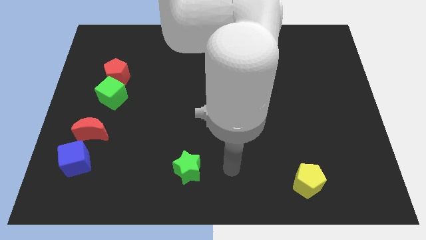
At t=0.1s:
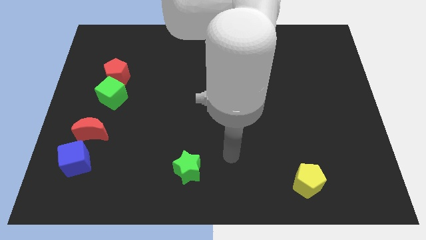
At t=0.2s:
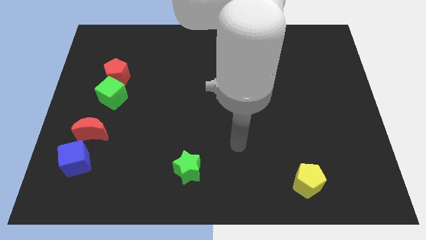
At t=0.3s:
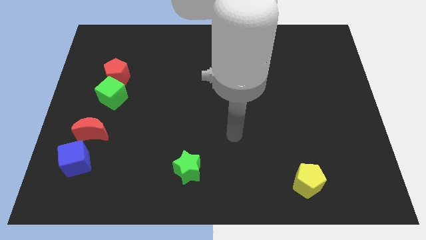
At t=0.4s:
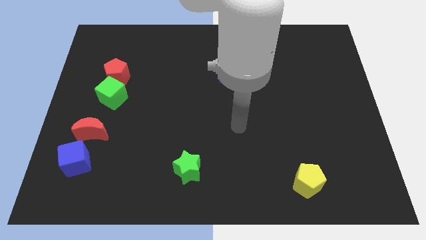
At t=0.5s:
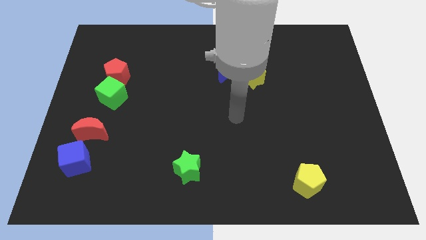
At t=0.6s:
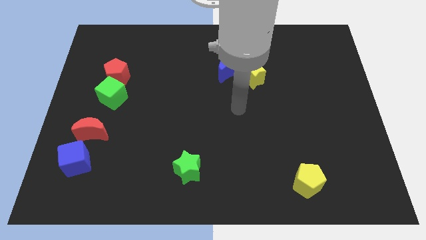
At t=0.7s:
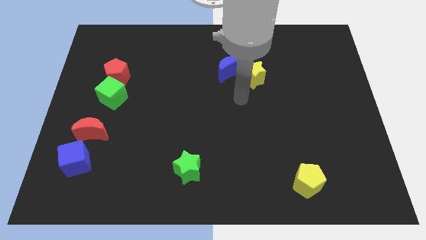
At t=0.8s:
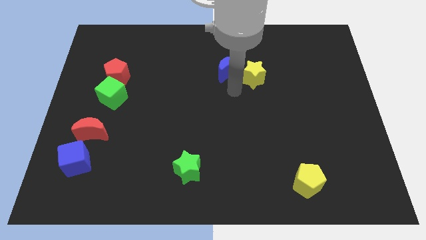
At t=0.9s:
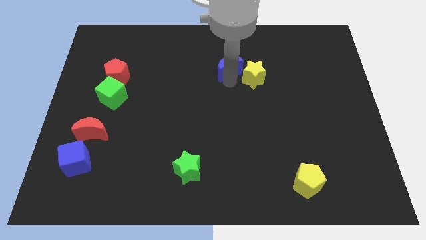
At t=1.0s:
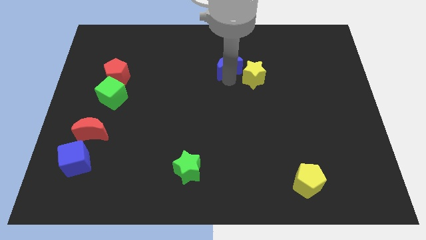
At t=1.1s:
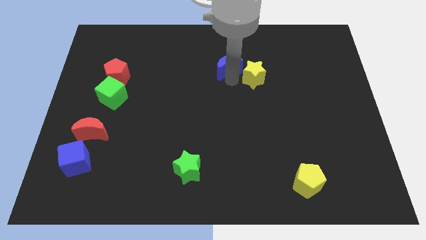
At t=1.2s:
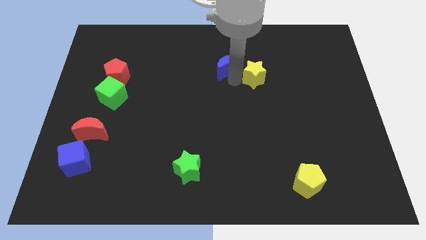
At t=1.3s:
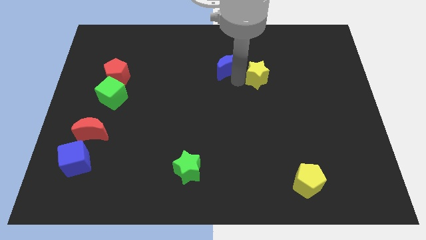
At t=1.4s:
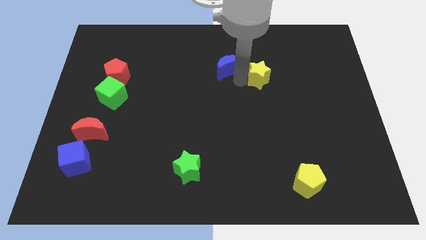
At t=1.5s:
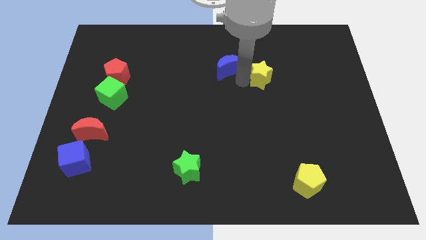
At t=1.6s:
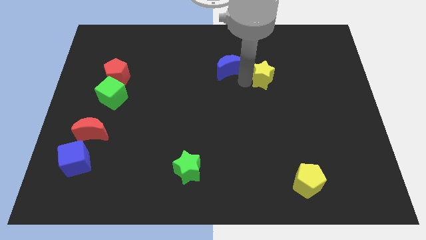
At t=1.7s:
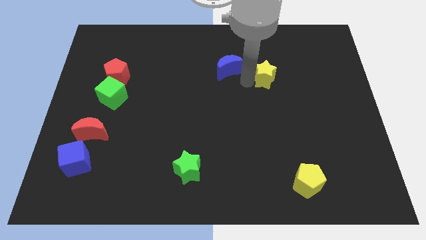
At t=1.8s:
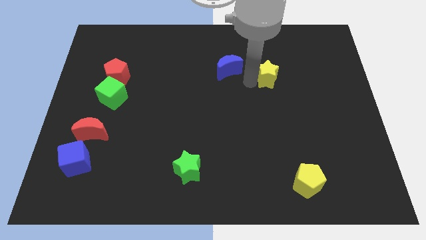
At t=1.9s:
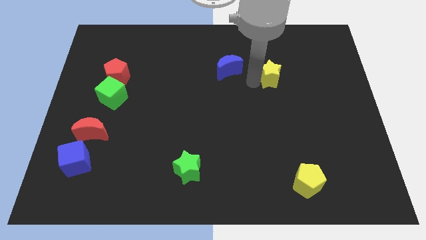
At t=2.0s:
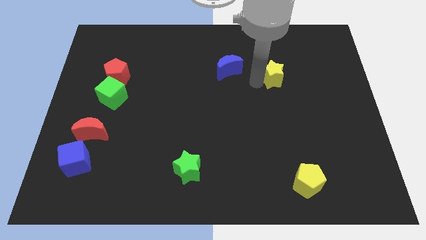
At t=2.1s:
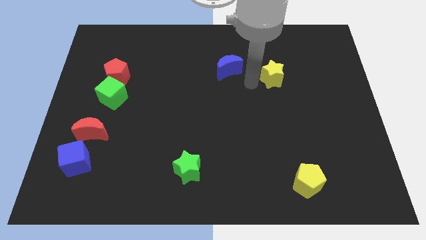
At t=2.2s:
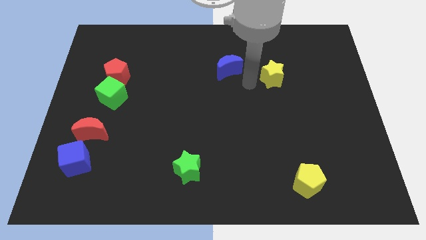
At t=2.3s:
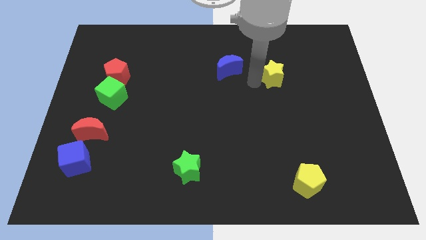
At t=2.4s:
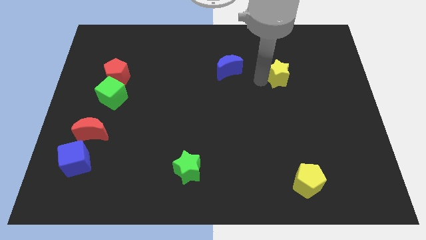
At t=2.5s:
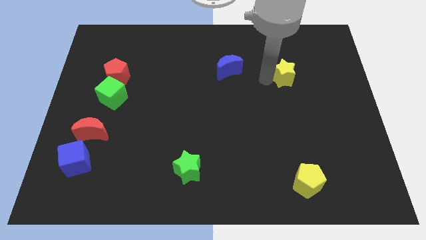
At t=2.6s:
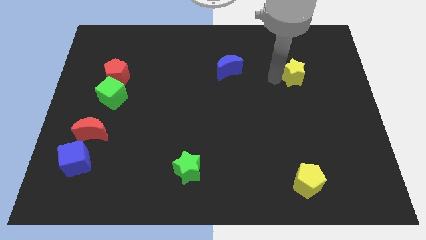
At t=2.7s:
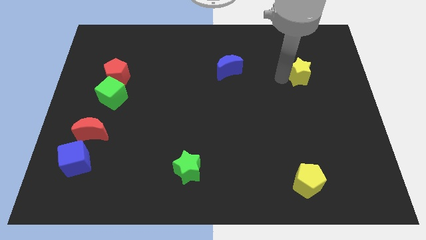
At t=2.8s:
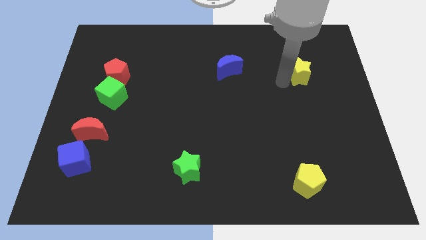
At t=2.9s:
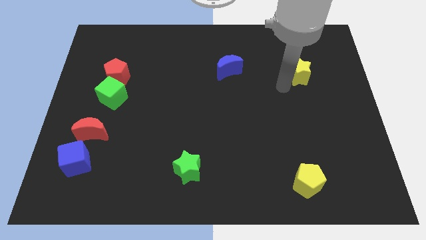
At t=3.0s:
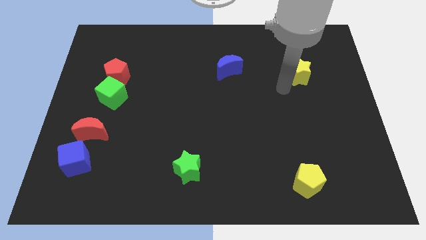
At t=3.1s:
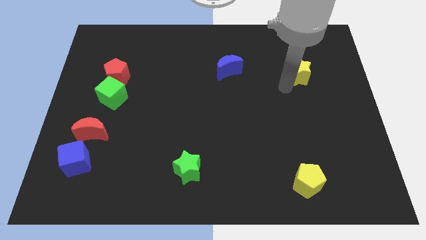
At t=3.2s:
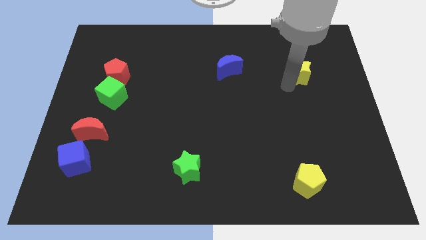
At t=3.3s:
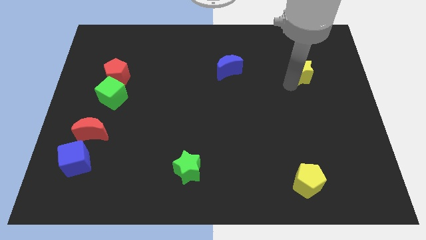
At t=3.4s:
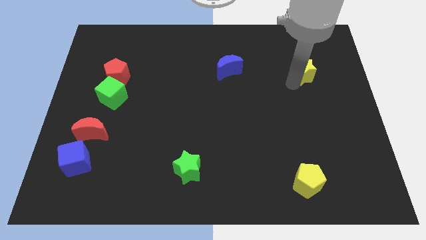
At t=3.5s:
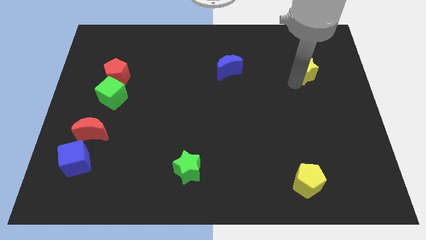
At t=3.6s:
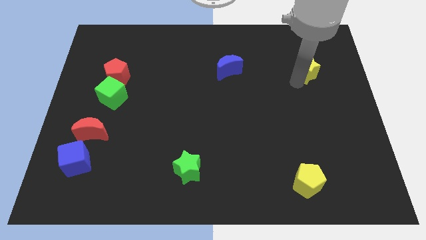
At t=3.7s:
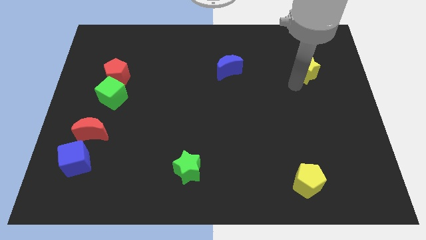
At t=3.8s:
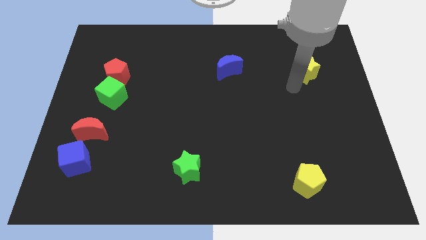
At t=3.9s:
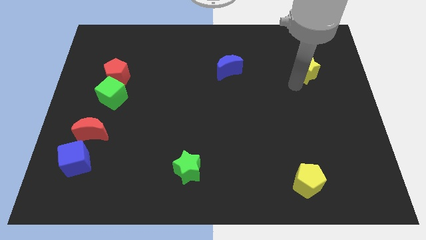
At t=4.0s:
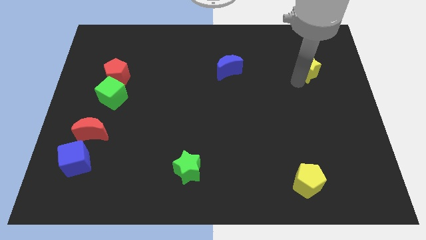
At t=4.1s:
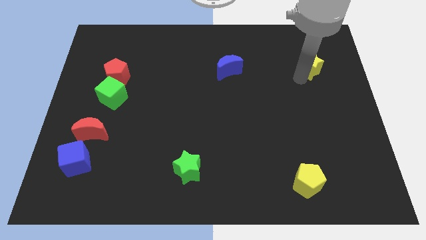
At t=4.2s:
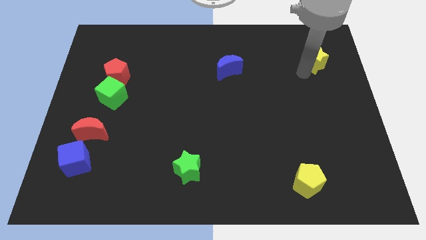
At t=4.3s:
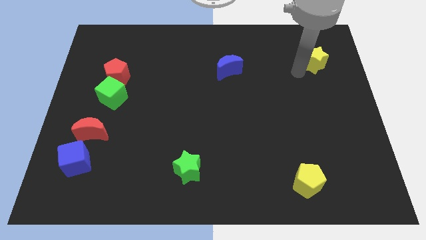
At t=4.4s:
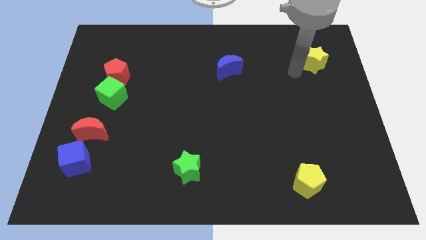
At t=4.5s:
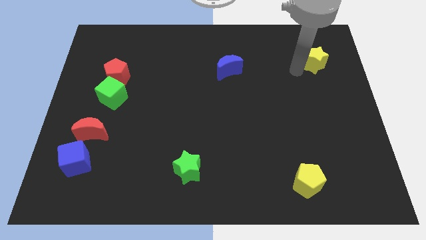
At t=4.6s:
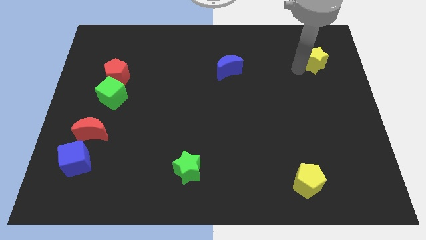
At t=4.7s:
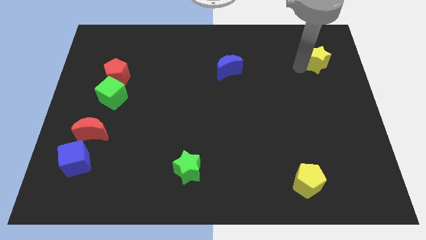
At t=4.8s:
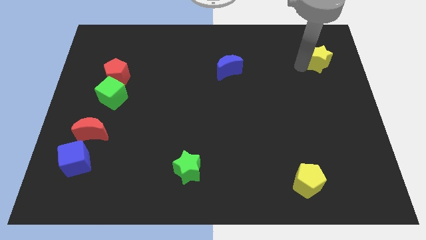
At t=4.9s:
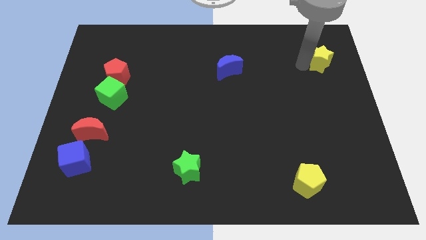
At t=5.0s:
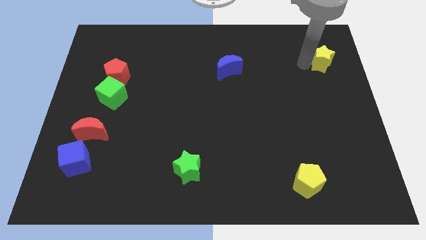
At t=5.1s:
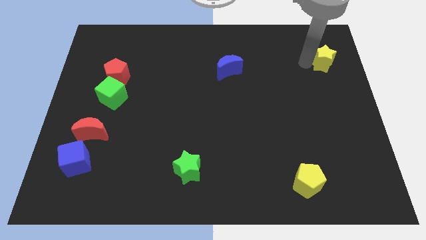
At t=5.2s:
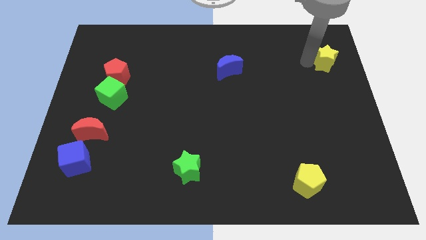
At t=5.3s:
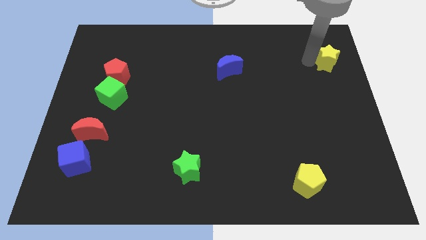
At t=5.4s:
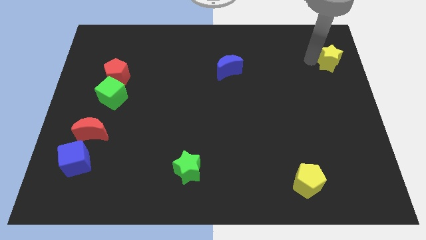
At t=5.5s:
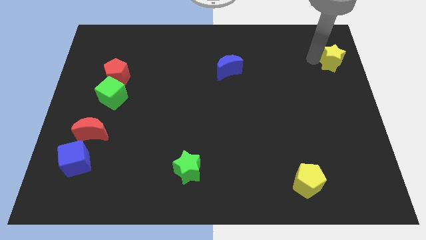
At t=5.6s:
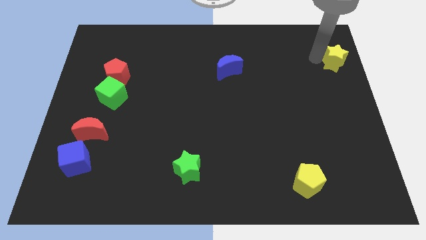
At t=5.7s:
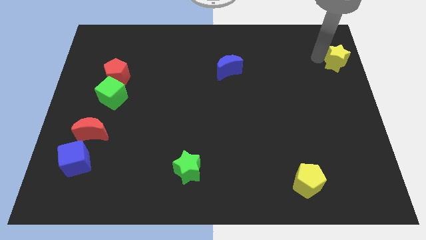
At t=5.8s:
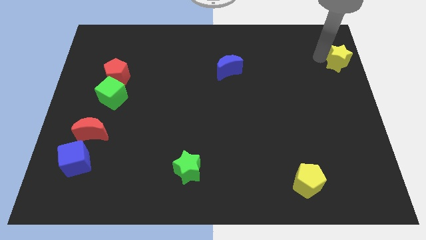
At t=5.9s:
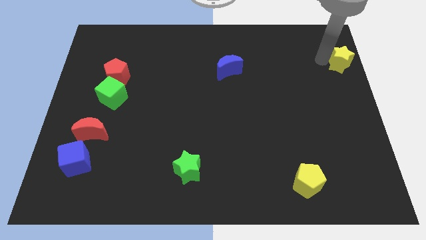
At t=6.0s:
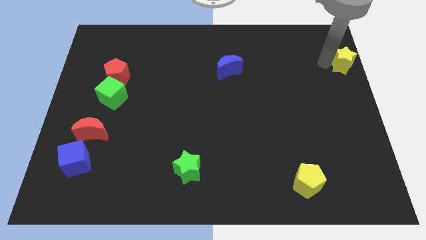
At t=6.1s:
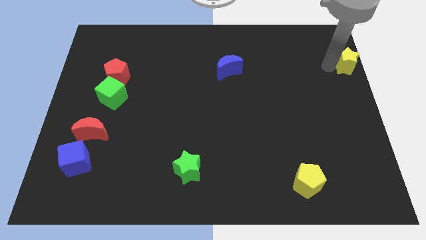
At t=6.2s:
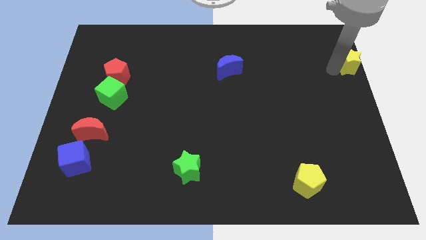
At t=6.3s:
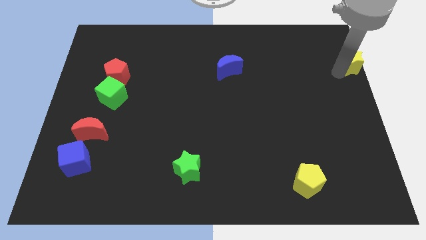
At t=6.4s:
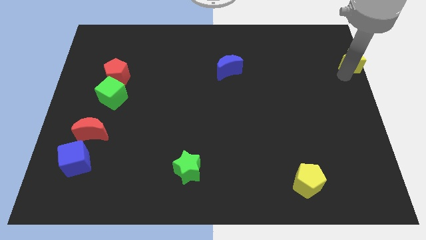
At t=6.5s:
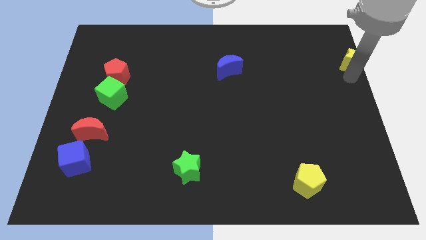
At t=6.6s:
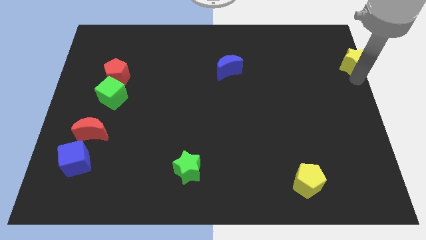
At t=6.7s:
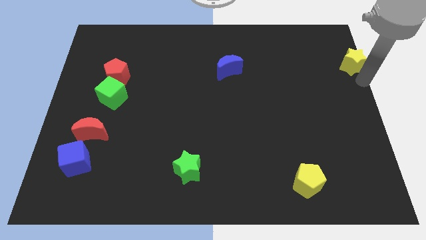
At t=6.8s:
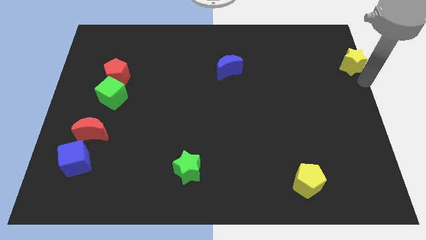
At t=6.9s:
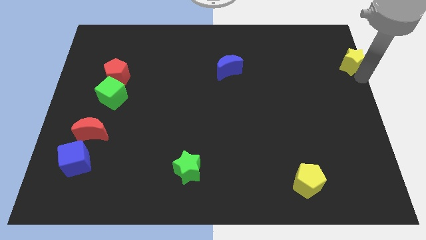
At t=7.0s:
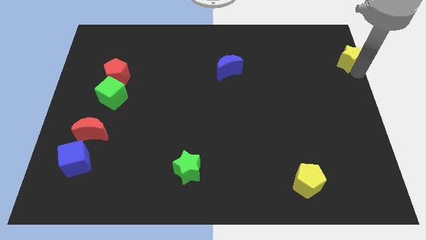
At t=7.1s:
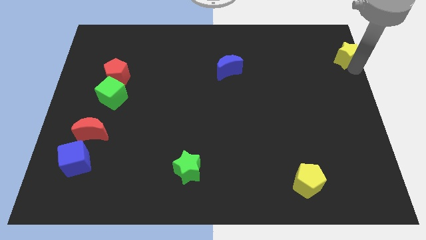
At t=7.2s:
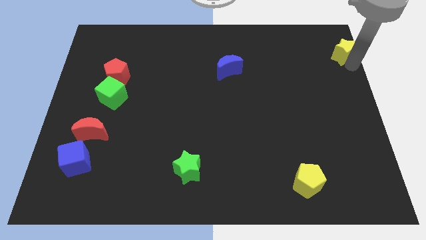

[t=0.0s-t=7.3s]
move the yellow star to the top right of the board
